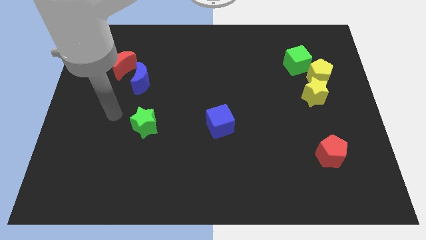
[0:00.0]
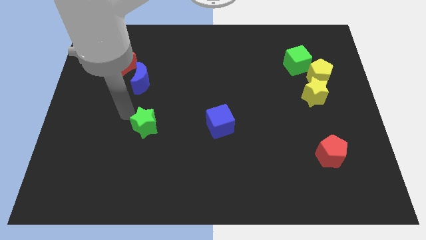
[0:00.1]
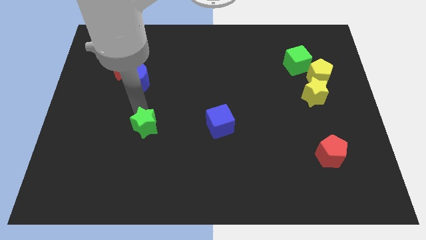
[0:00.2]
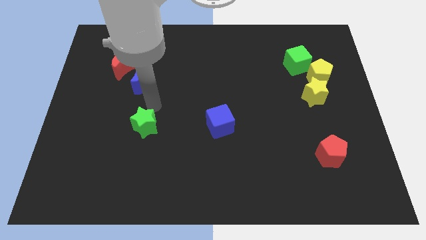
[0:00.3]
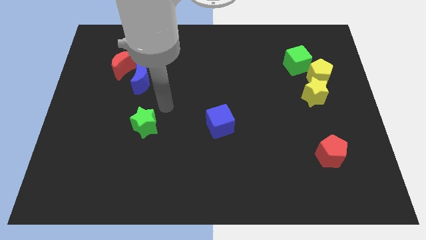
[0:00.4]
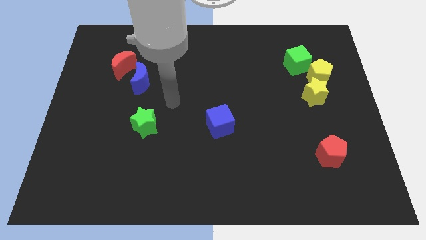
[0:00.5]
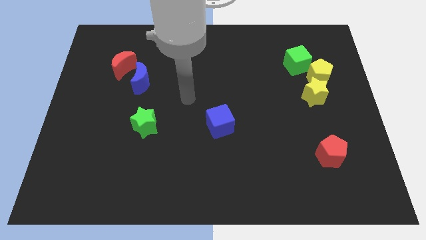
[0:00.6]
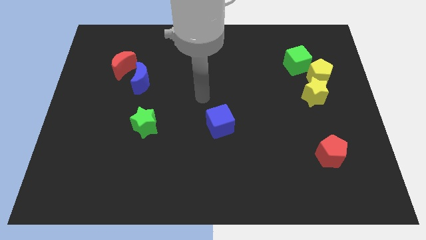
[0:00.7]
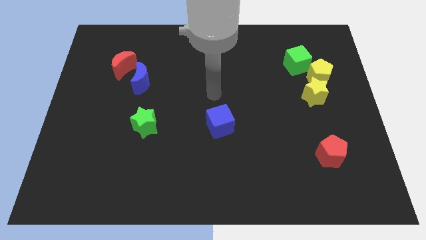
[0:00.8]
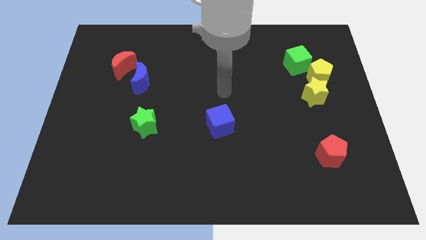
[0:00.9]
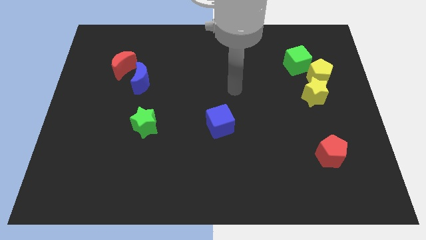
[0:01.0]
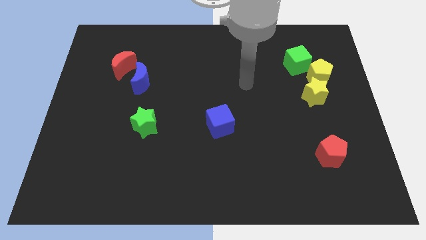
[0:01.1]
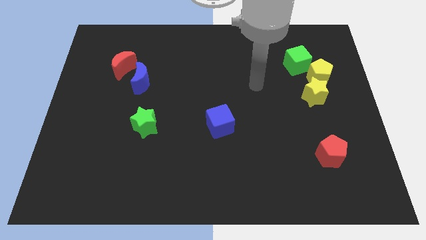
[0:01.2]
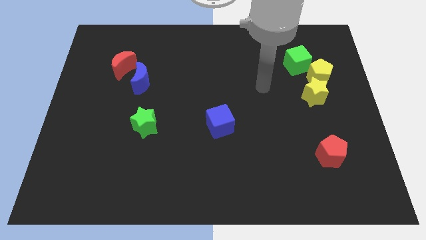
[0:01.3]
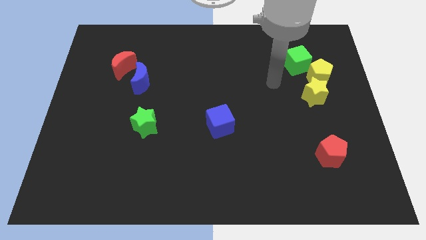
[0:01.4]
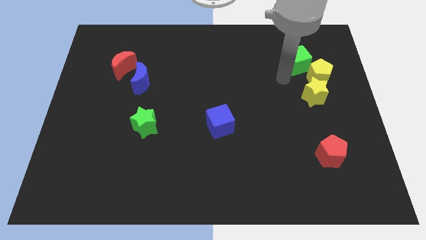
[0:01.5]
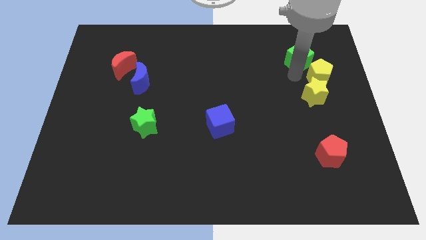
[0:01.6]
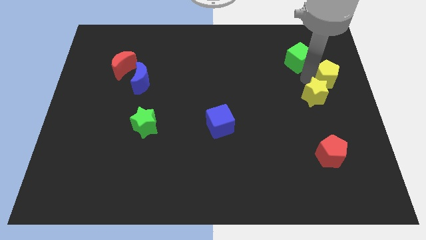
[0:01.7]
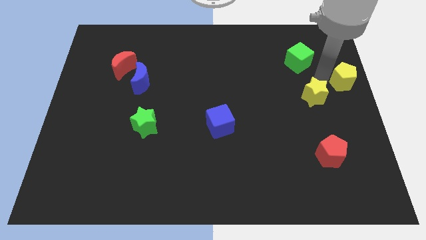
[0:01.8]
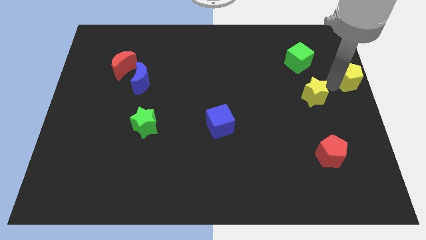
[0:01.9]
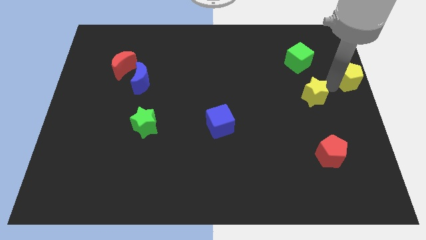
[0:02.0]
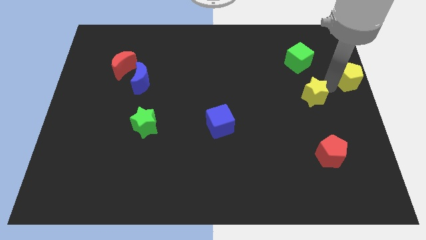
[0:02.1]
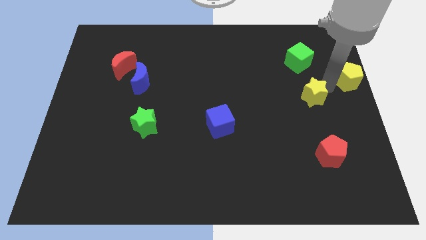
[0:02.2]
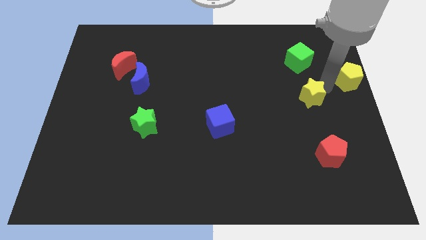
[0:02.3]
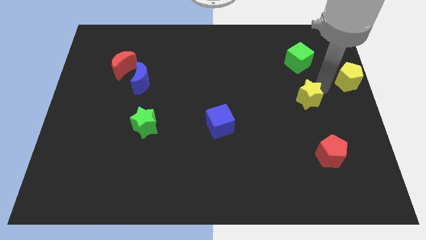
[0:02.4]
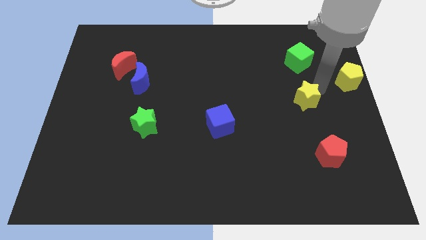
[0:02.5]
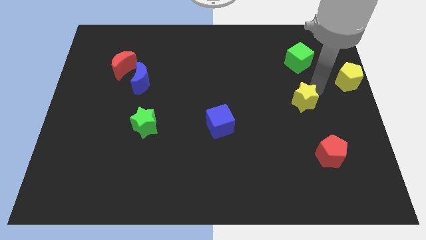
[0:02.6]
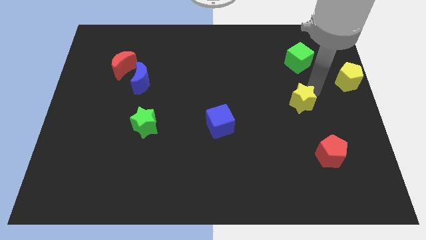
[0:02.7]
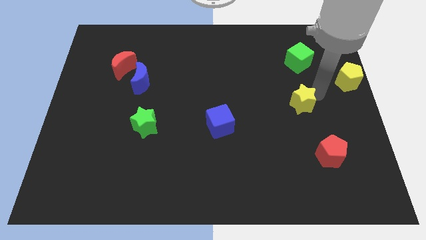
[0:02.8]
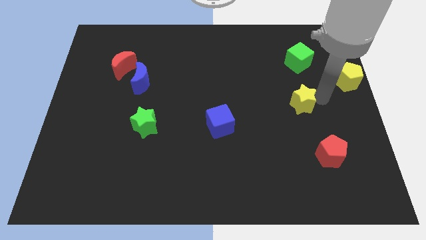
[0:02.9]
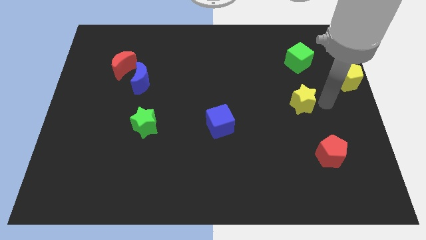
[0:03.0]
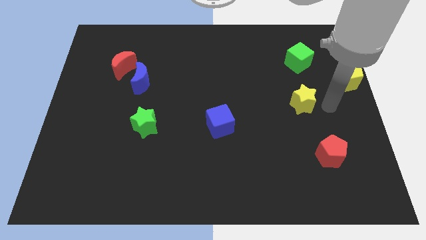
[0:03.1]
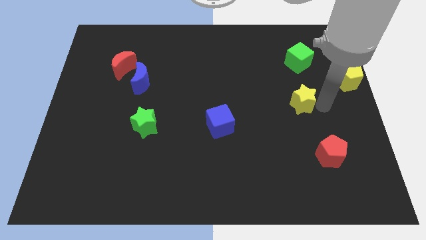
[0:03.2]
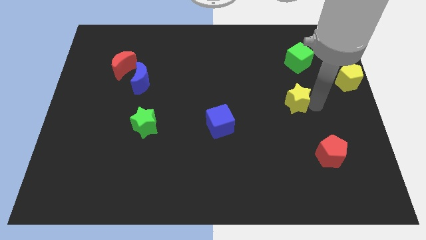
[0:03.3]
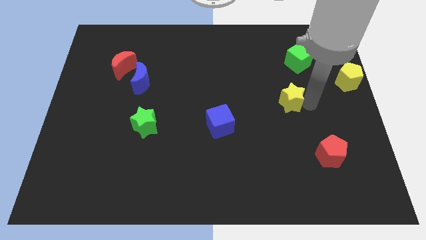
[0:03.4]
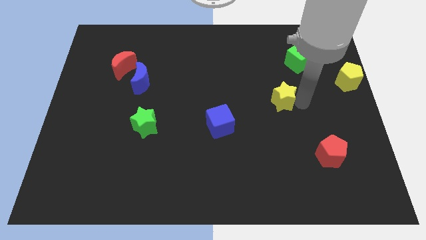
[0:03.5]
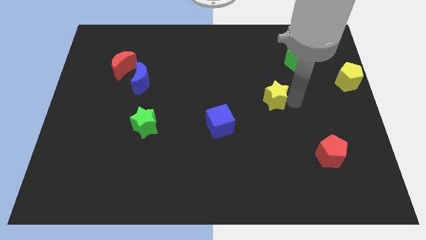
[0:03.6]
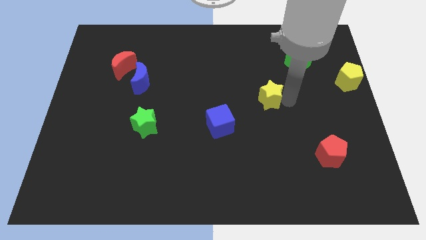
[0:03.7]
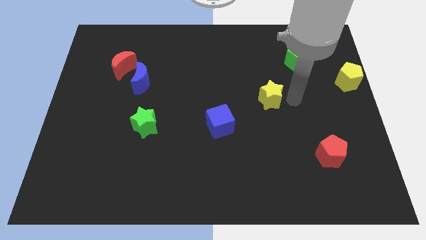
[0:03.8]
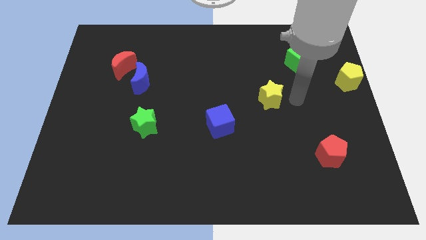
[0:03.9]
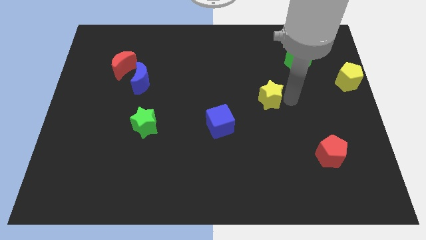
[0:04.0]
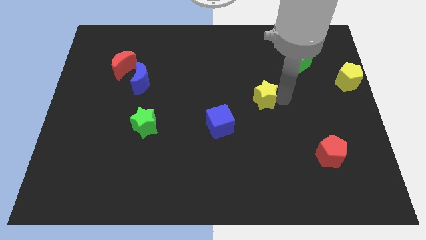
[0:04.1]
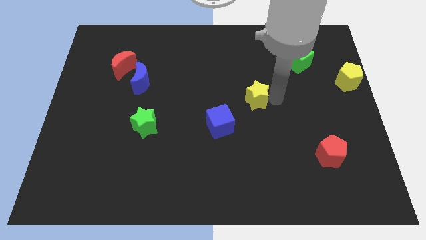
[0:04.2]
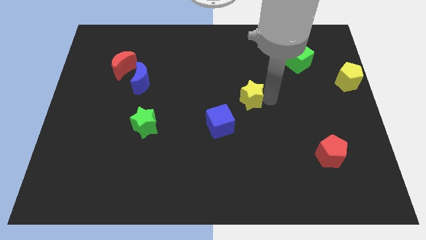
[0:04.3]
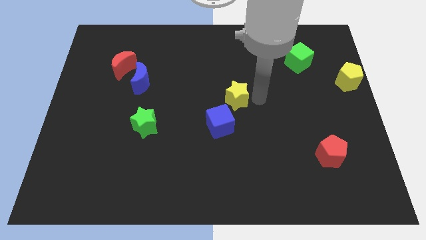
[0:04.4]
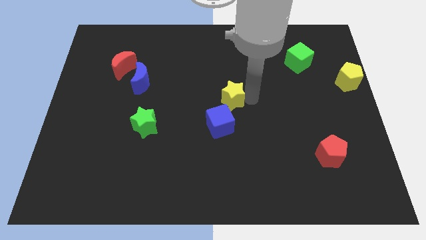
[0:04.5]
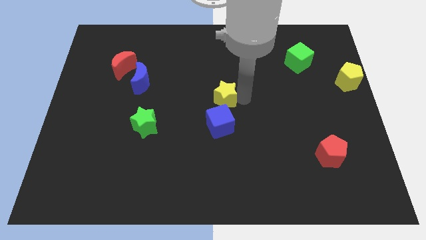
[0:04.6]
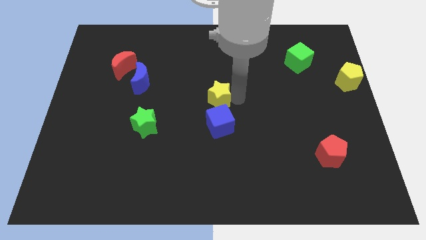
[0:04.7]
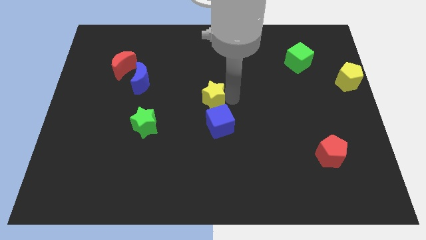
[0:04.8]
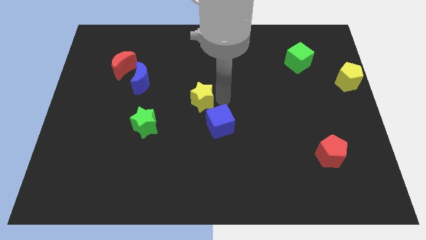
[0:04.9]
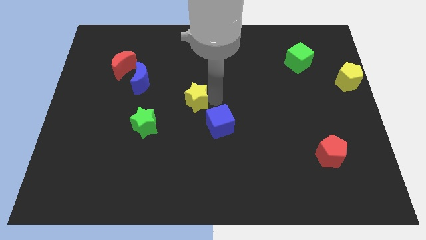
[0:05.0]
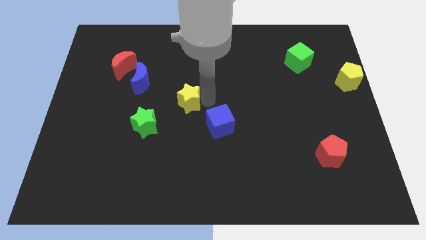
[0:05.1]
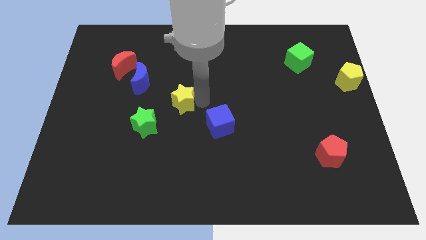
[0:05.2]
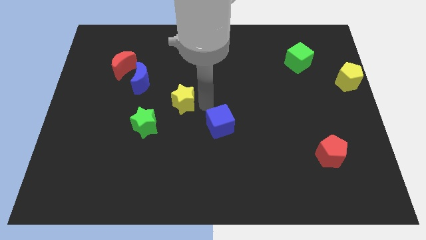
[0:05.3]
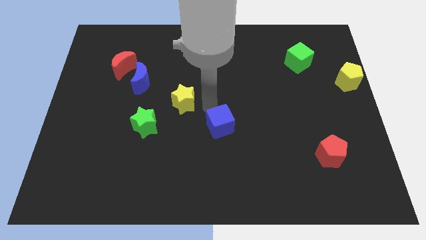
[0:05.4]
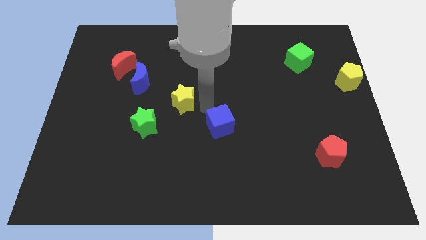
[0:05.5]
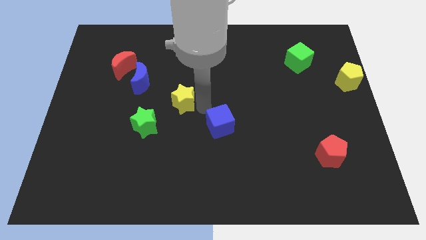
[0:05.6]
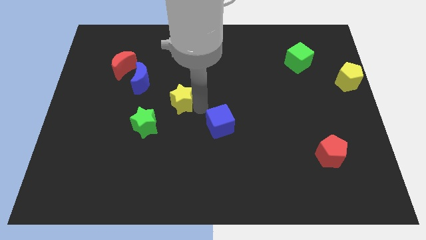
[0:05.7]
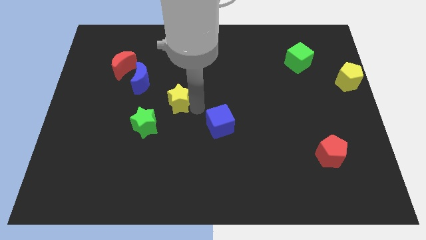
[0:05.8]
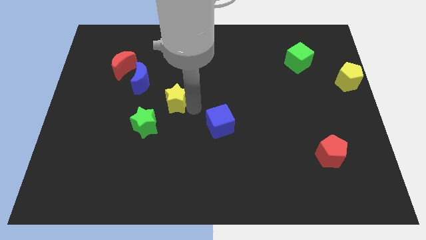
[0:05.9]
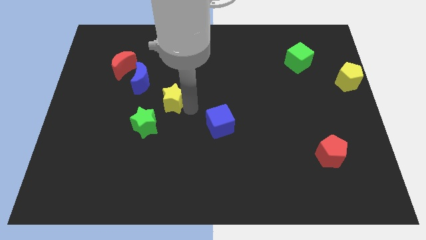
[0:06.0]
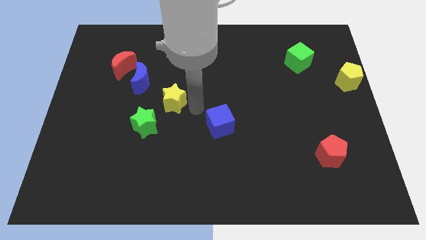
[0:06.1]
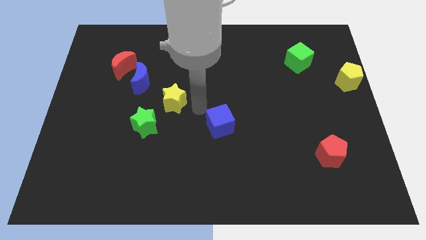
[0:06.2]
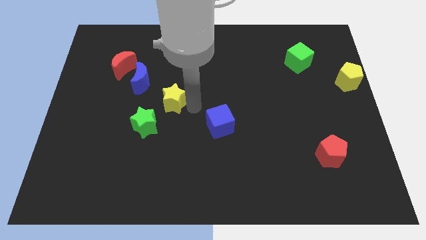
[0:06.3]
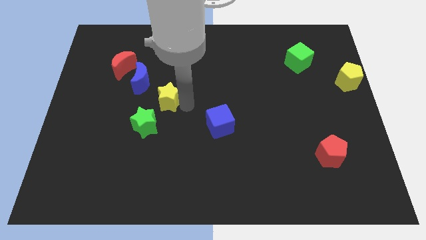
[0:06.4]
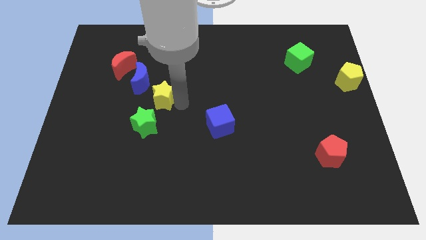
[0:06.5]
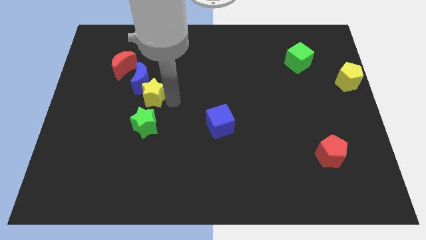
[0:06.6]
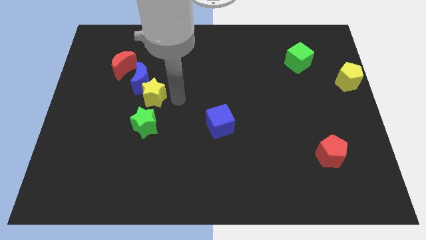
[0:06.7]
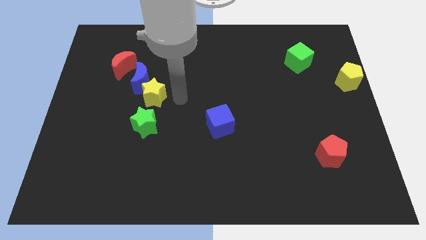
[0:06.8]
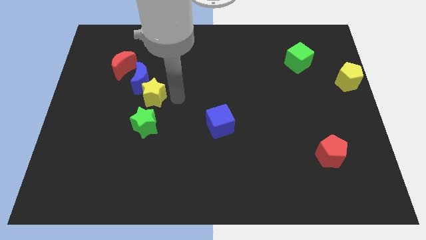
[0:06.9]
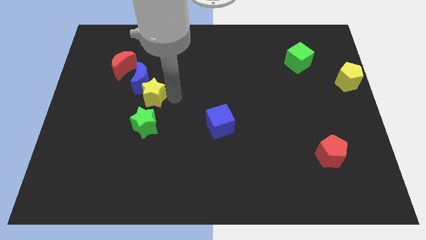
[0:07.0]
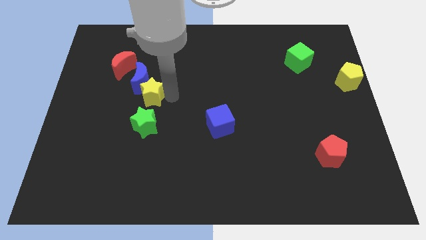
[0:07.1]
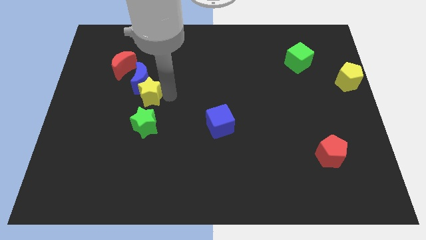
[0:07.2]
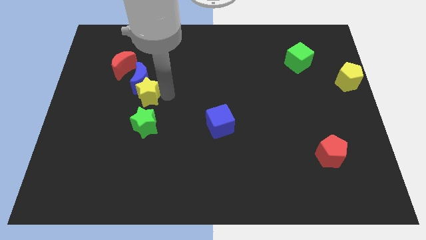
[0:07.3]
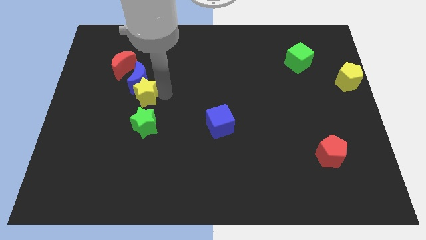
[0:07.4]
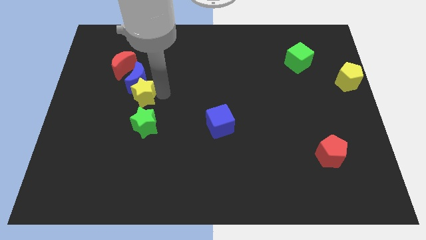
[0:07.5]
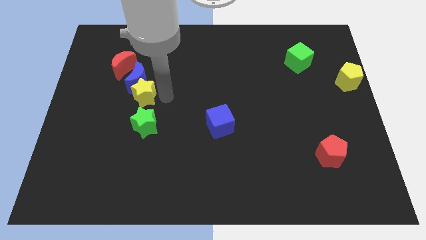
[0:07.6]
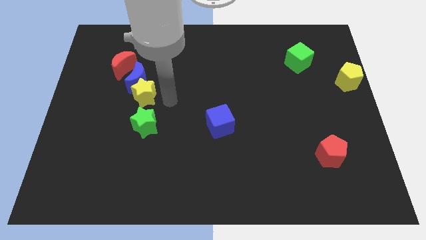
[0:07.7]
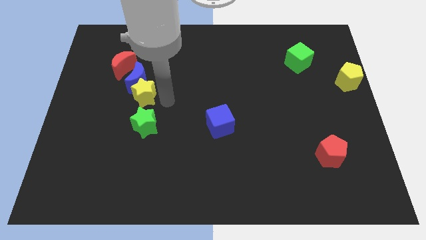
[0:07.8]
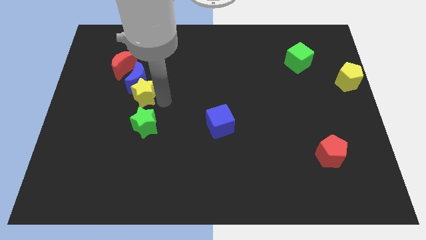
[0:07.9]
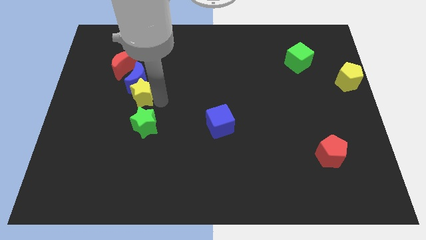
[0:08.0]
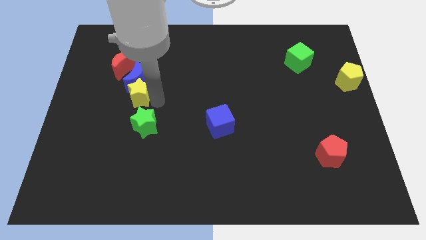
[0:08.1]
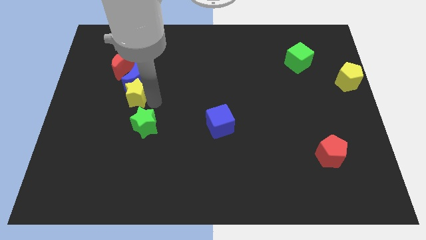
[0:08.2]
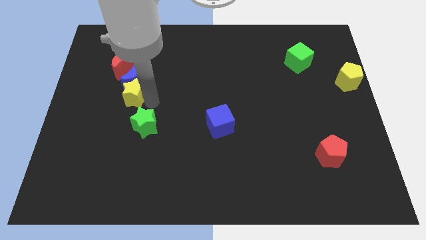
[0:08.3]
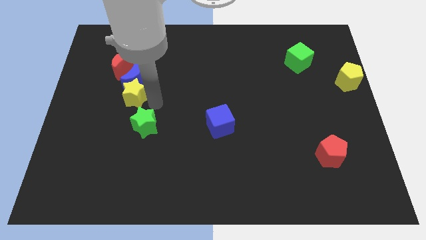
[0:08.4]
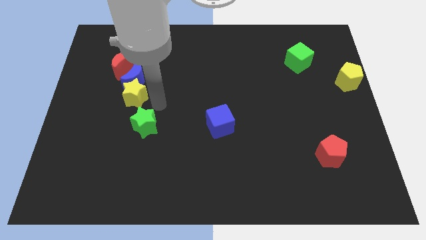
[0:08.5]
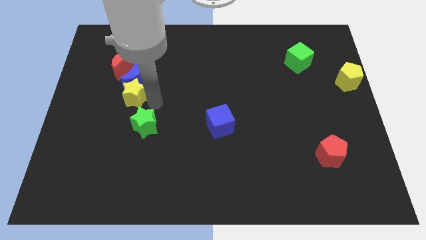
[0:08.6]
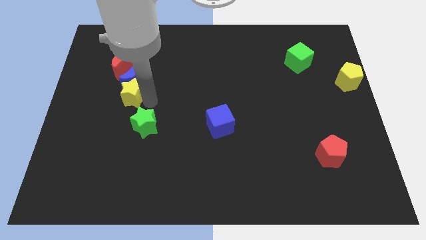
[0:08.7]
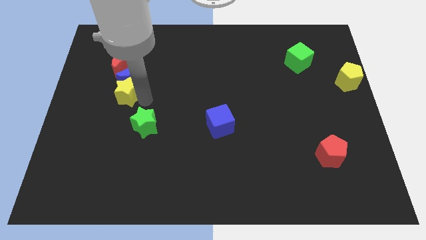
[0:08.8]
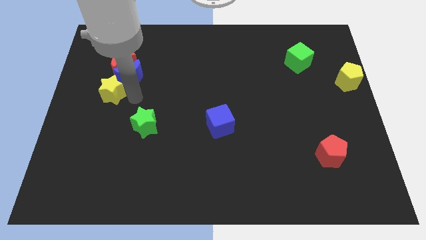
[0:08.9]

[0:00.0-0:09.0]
slide the yellow star just left of the blue moon
